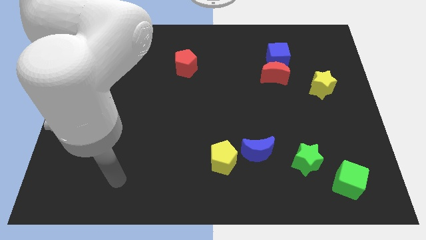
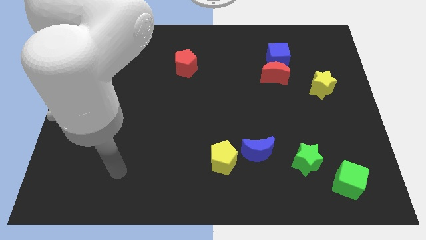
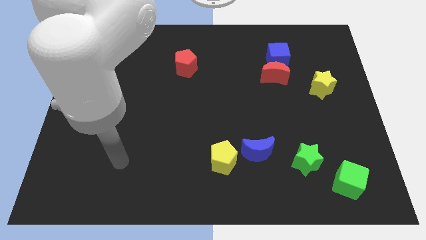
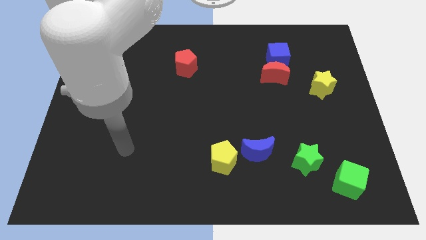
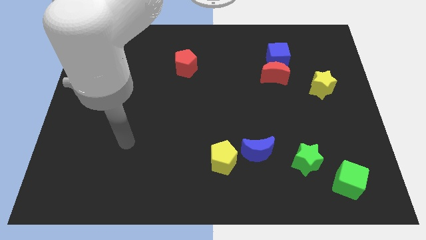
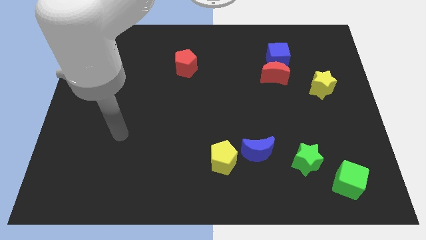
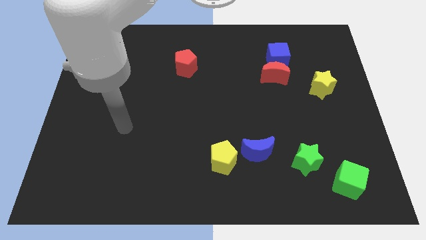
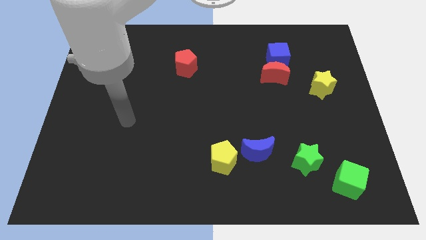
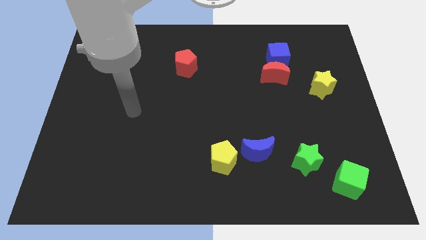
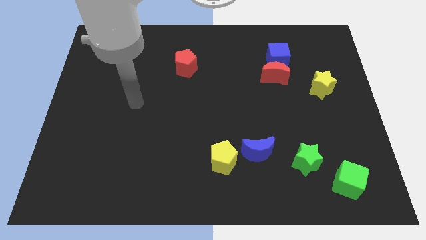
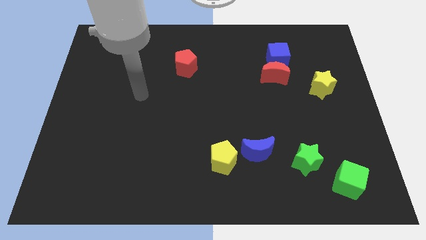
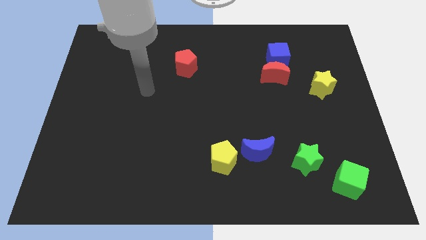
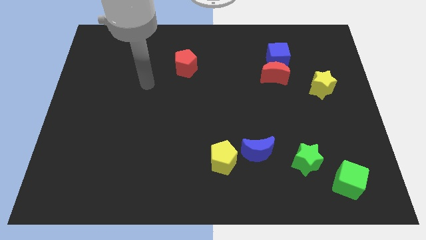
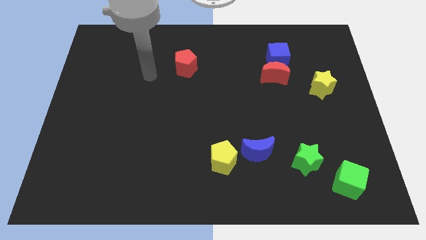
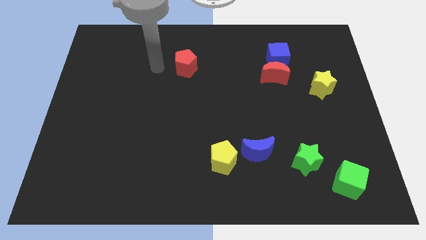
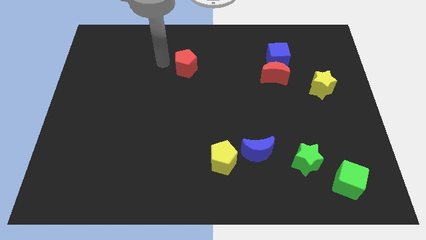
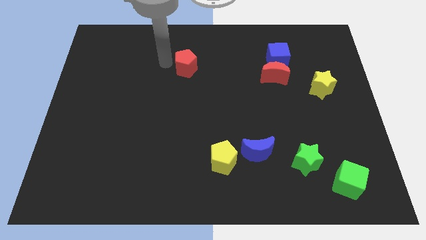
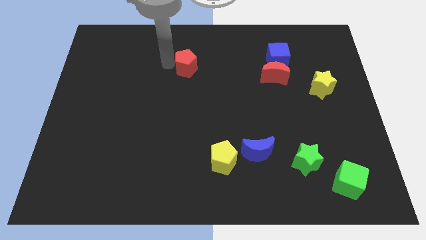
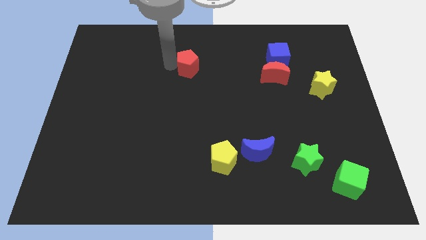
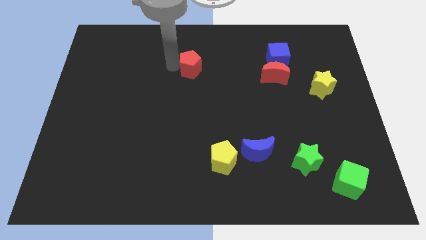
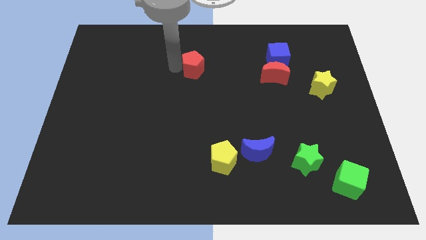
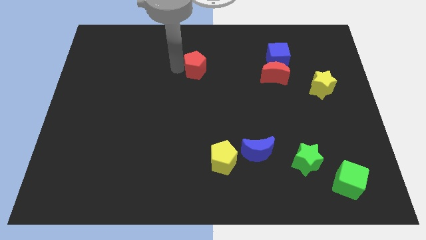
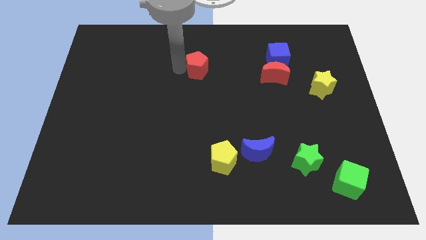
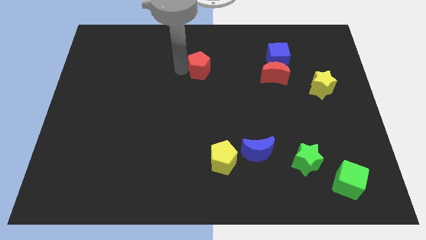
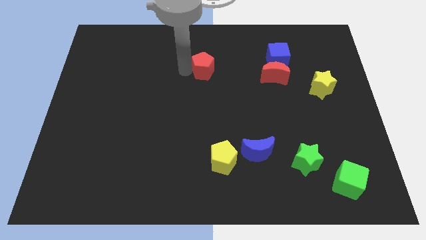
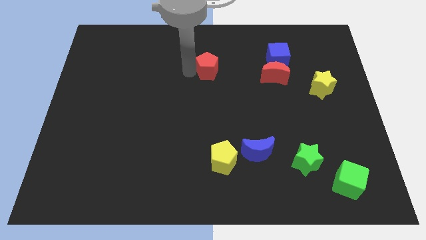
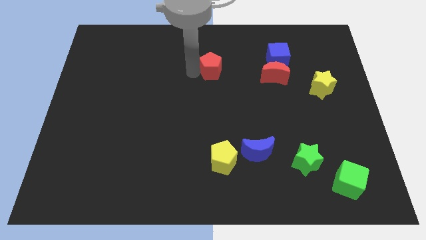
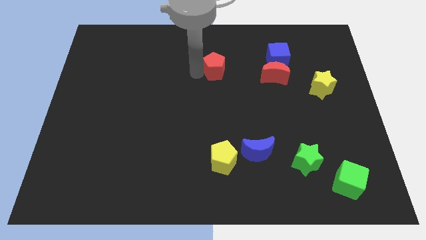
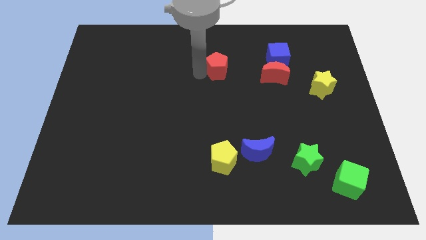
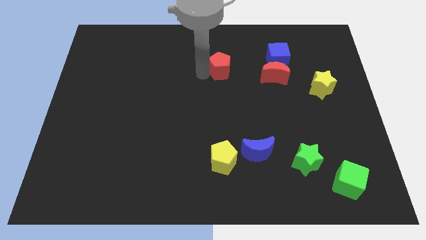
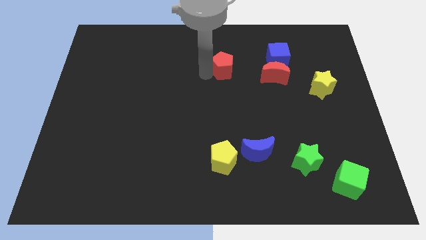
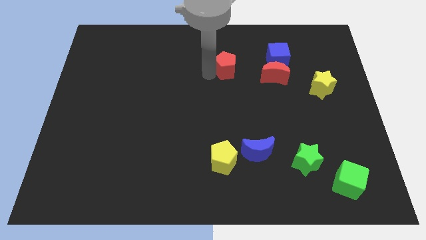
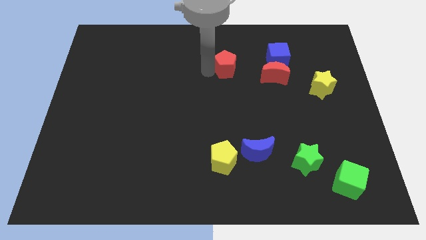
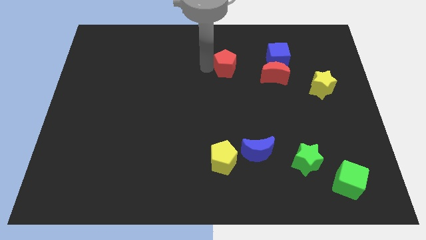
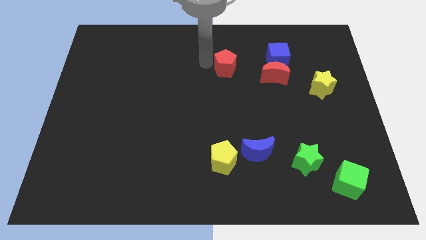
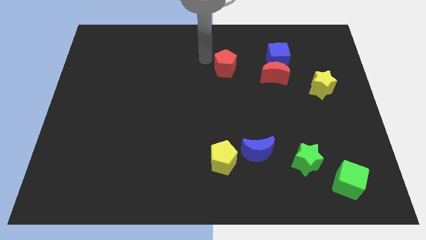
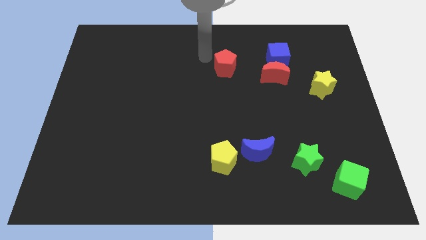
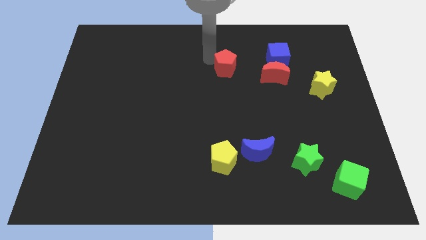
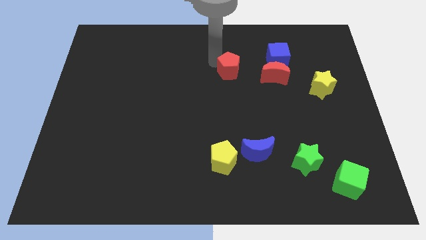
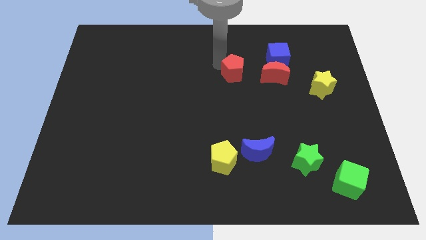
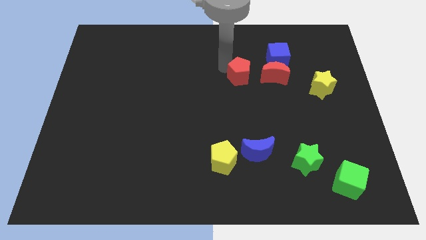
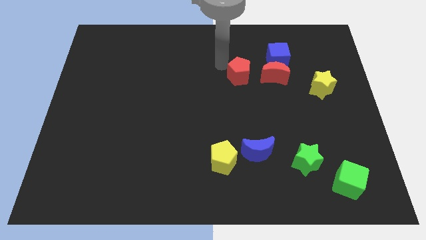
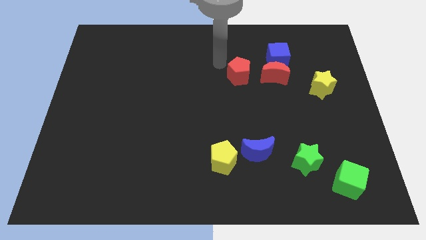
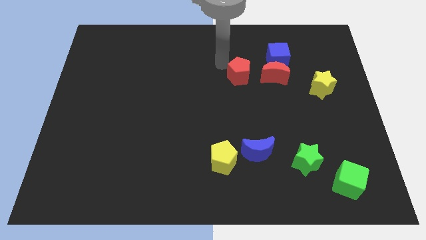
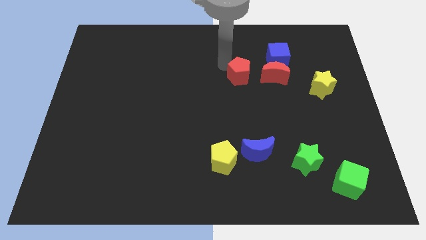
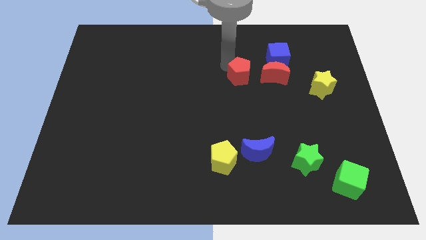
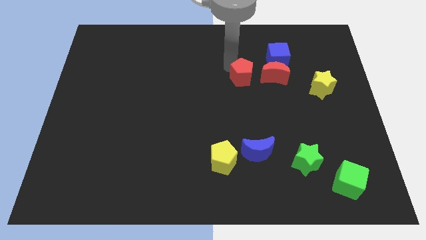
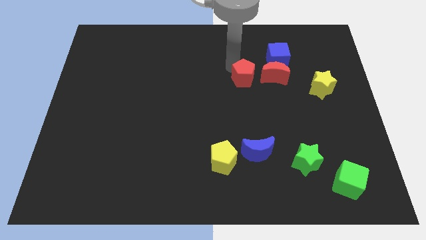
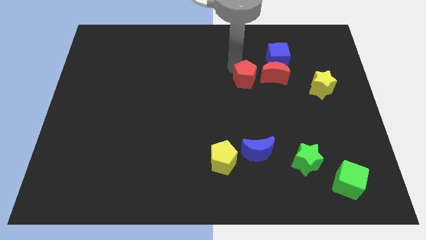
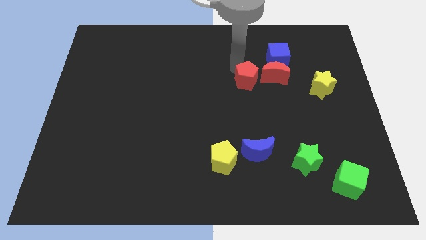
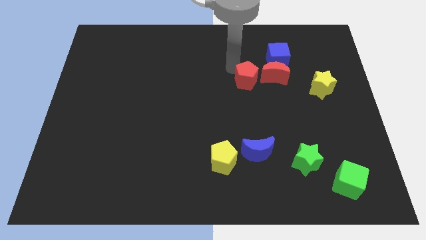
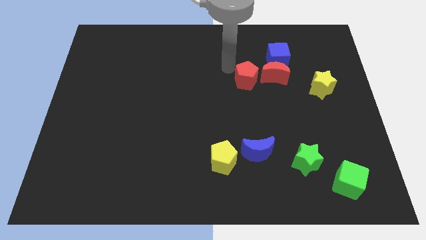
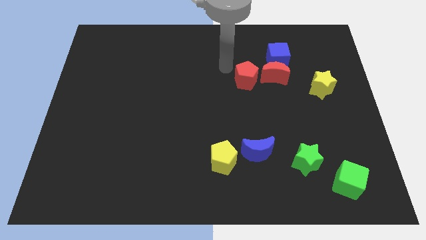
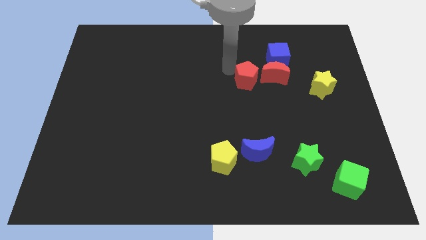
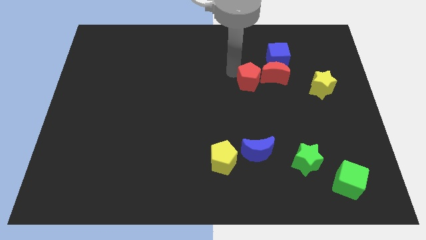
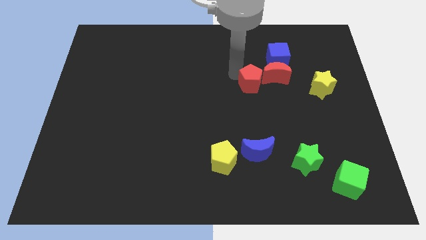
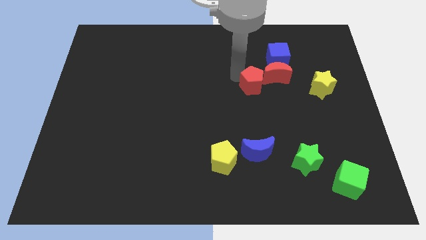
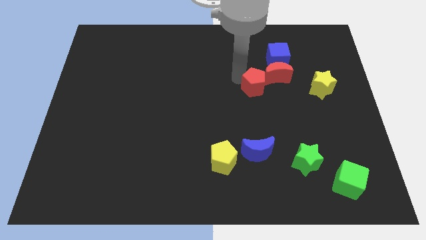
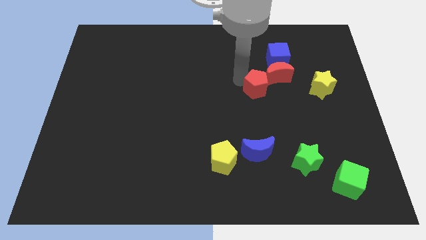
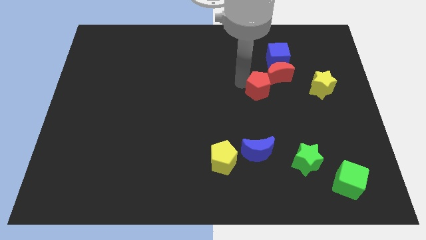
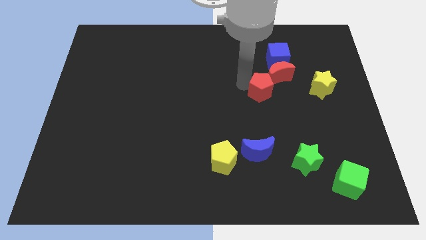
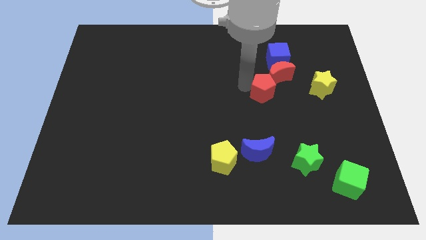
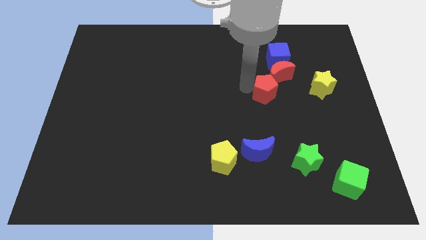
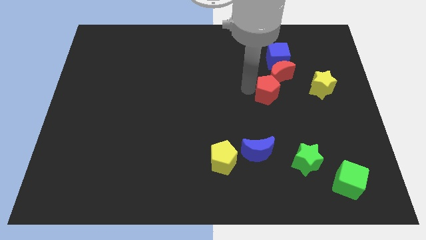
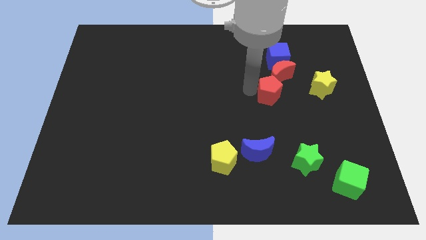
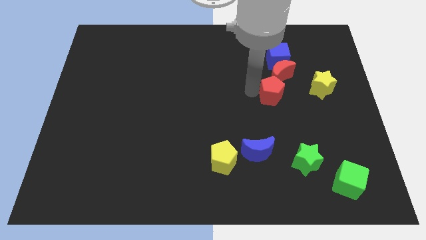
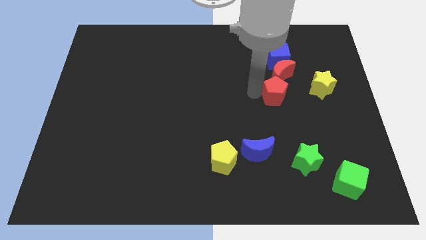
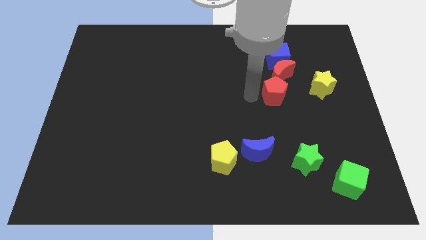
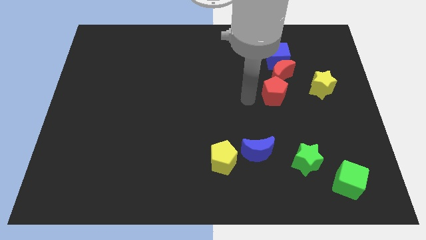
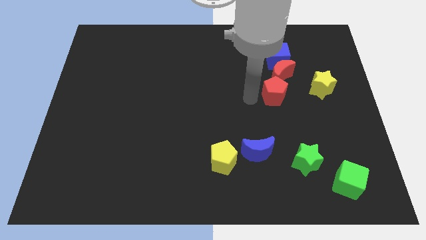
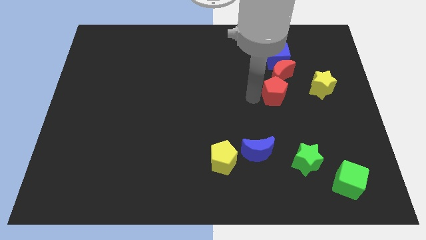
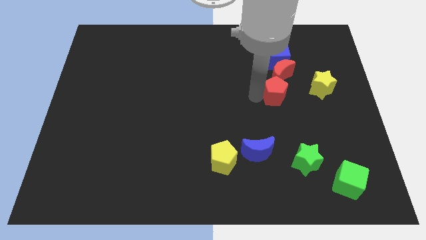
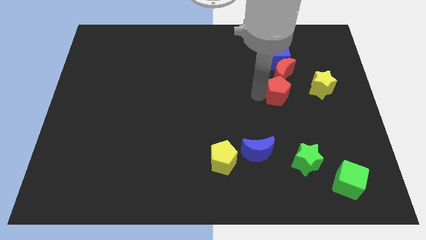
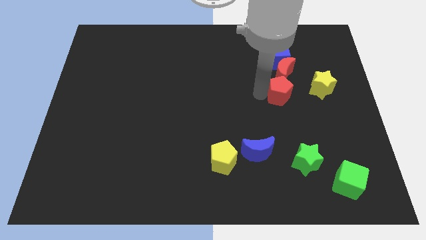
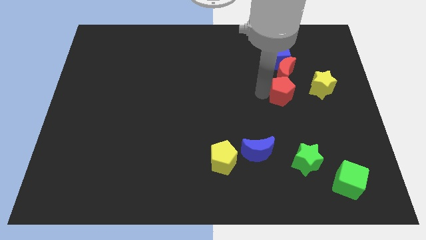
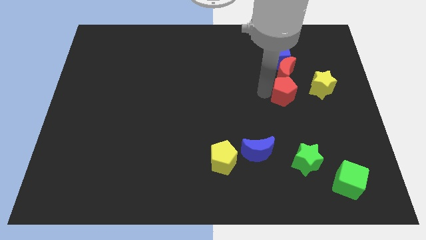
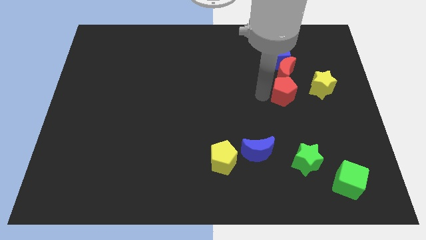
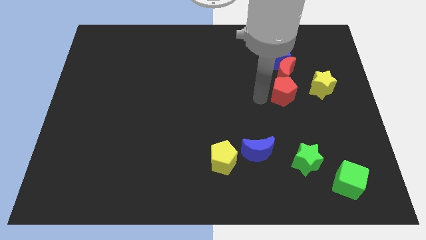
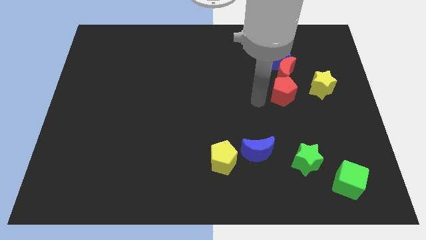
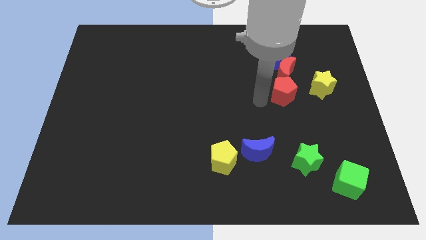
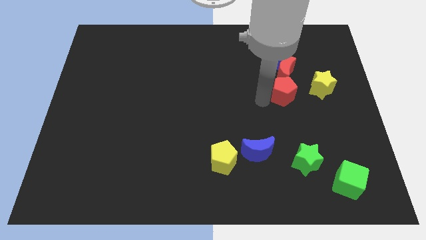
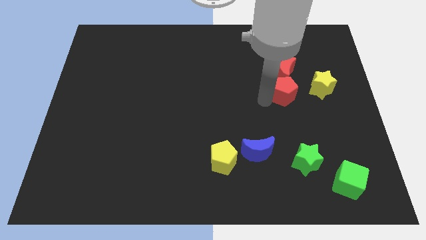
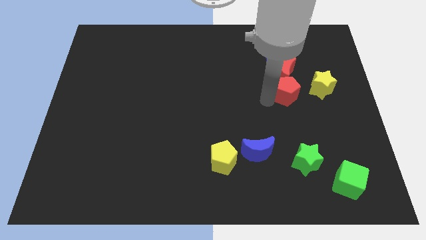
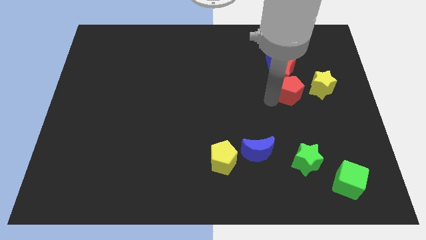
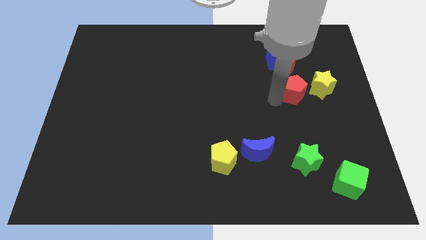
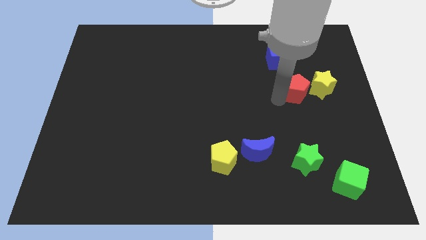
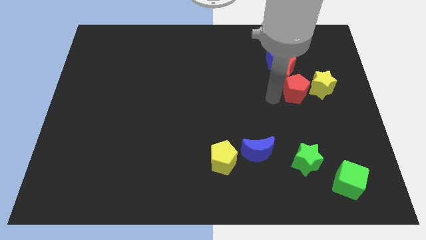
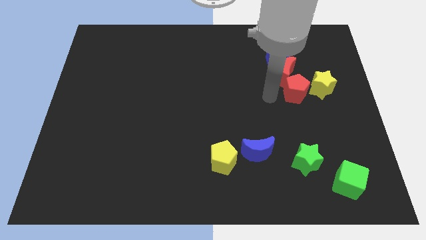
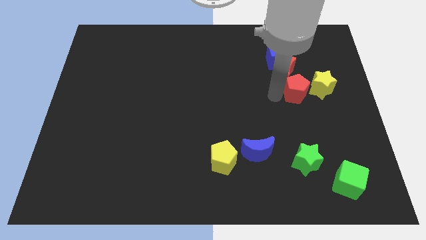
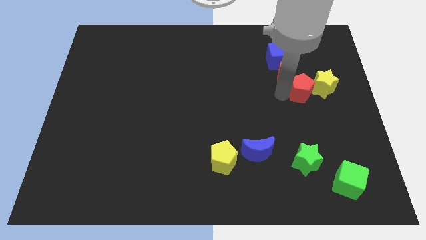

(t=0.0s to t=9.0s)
put the red pentagon close to the yellow star
